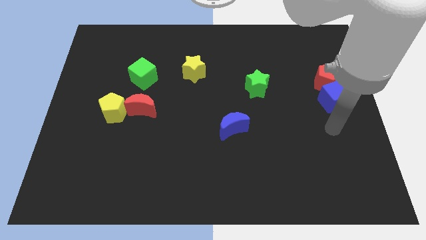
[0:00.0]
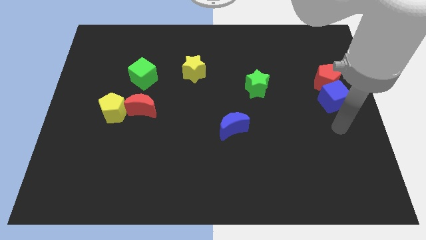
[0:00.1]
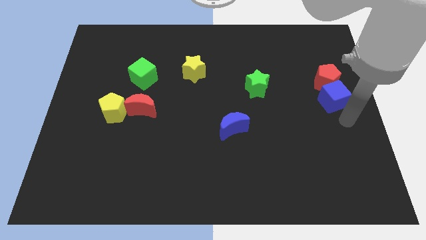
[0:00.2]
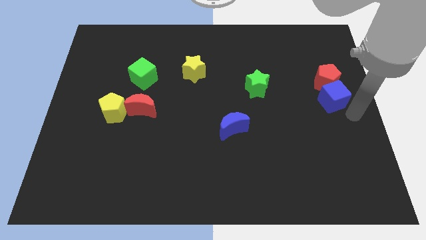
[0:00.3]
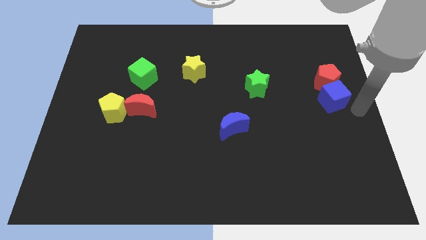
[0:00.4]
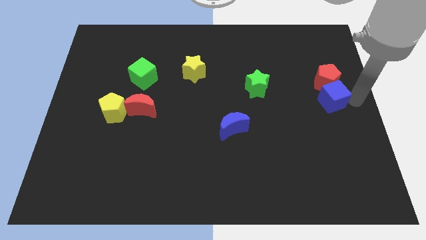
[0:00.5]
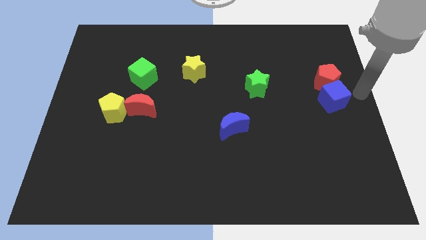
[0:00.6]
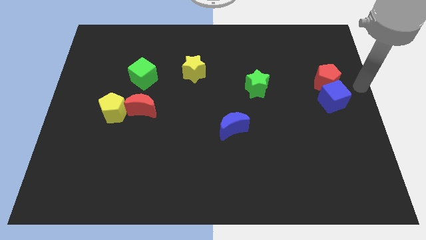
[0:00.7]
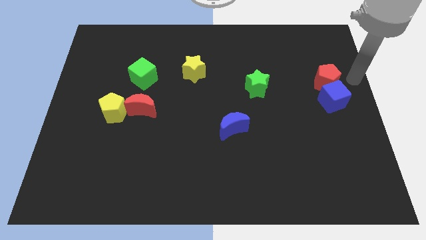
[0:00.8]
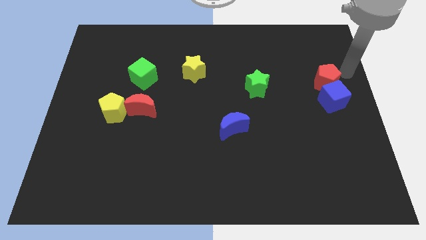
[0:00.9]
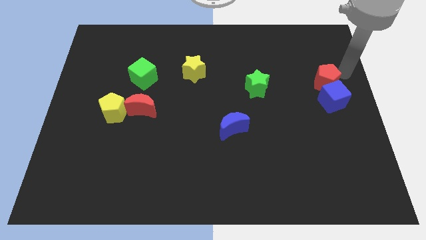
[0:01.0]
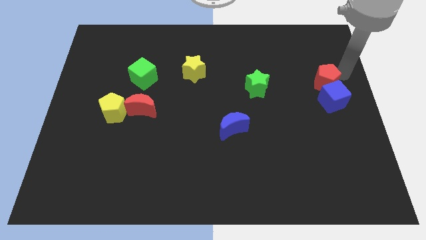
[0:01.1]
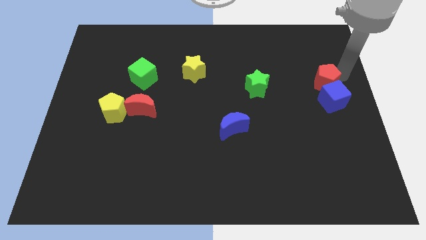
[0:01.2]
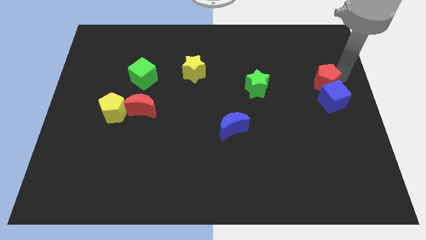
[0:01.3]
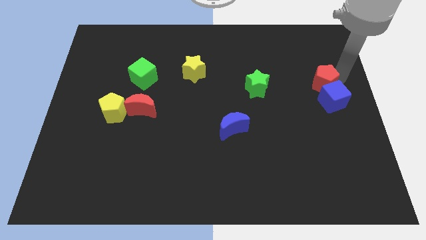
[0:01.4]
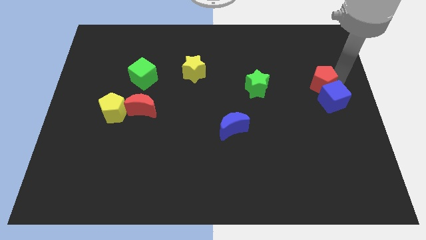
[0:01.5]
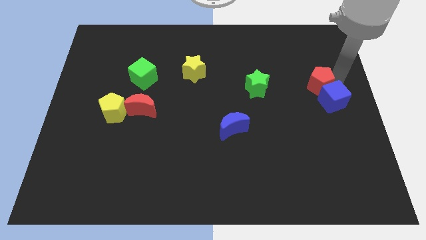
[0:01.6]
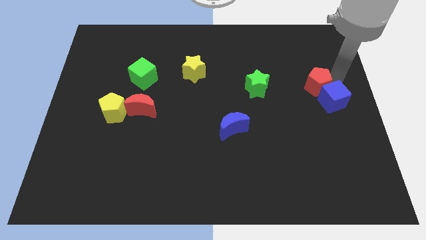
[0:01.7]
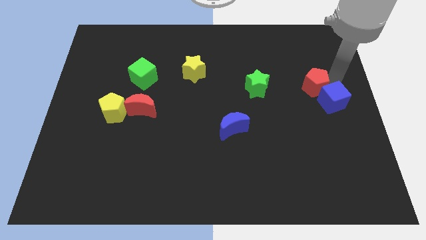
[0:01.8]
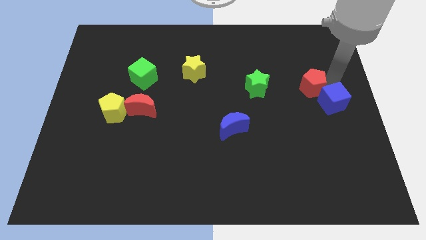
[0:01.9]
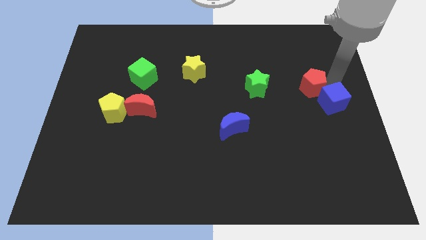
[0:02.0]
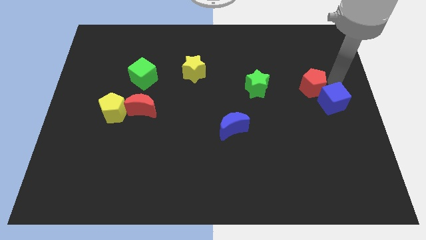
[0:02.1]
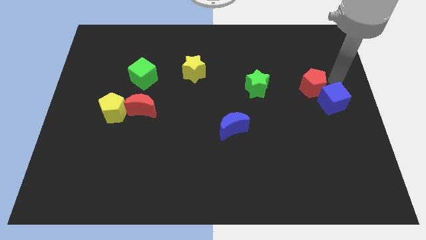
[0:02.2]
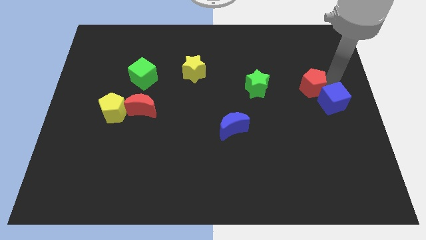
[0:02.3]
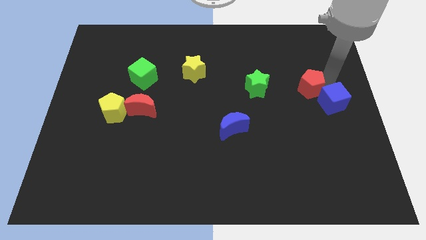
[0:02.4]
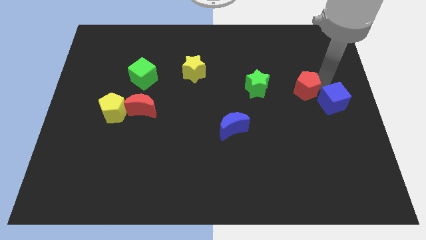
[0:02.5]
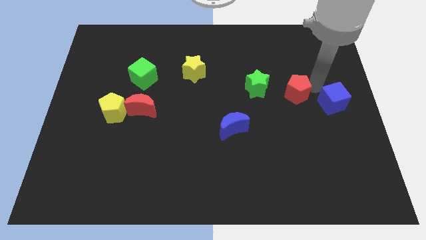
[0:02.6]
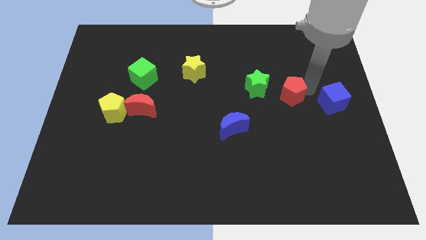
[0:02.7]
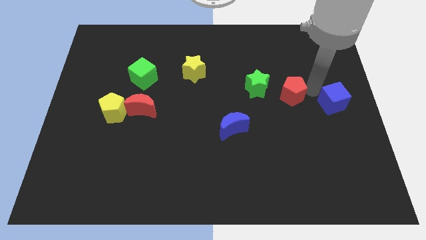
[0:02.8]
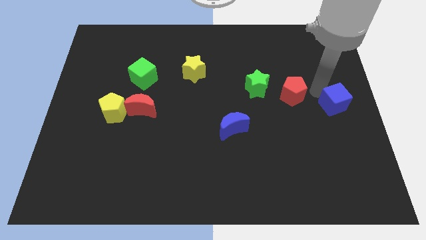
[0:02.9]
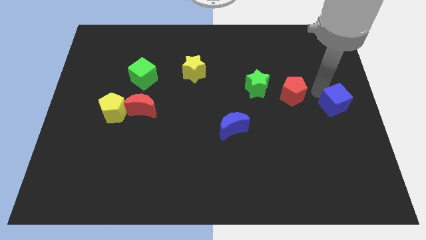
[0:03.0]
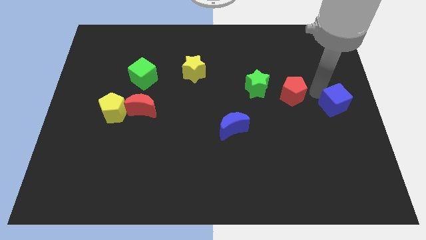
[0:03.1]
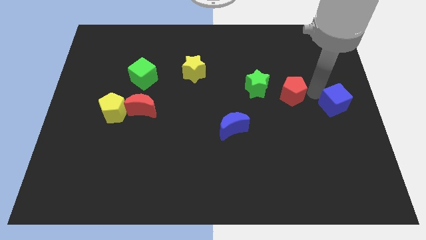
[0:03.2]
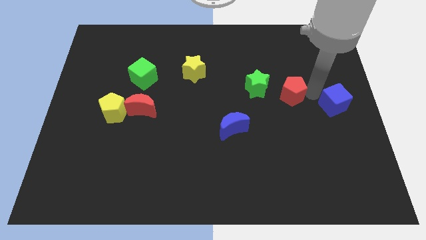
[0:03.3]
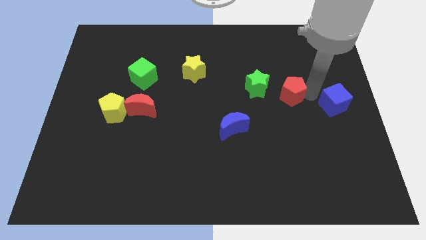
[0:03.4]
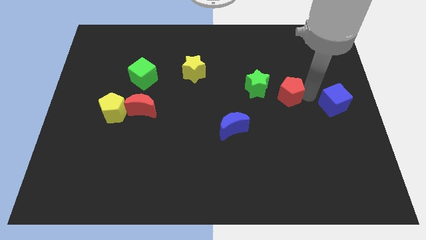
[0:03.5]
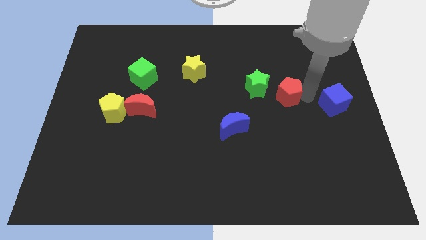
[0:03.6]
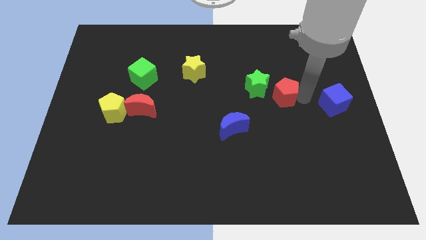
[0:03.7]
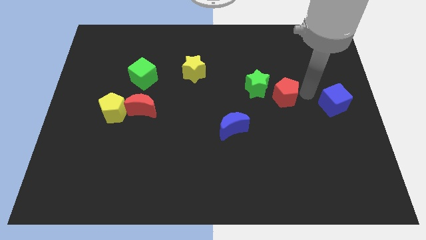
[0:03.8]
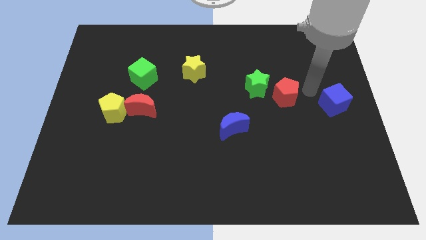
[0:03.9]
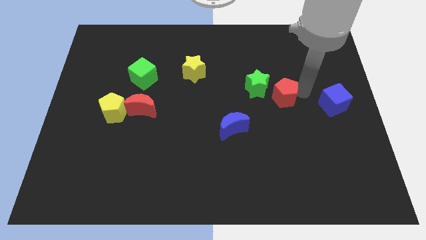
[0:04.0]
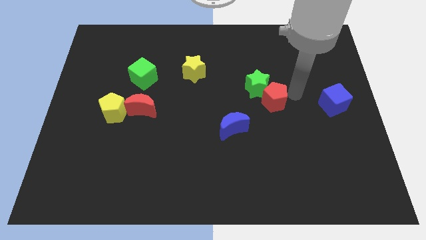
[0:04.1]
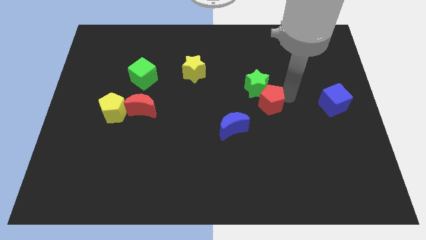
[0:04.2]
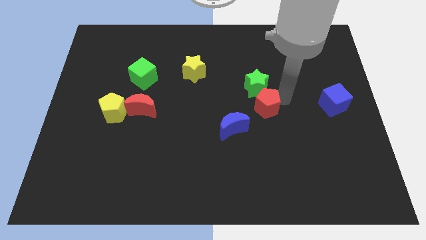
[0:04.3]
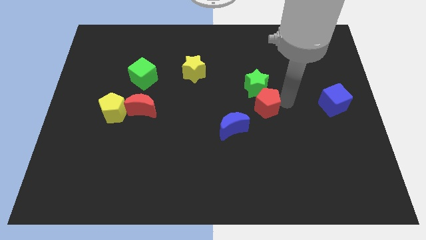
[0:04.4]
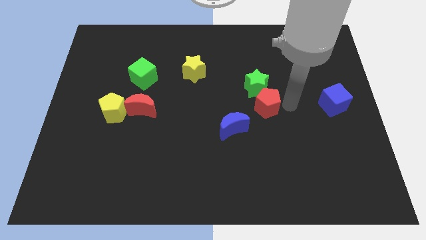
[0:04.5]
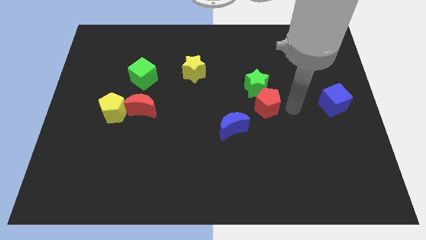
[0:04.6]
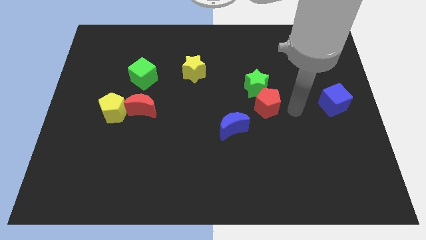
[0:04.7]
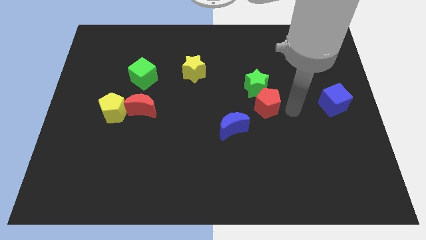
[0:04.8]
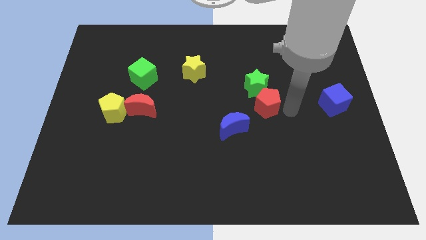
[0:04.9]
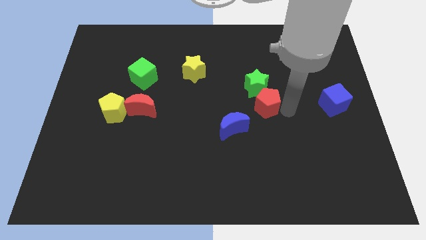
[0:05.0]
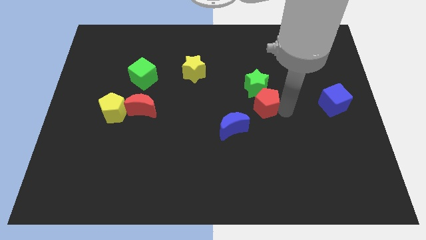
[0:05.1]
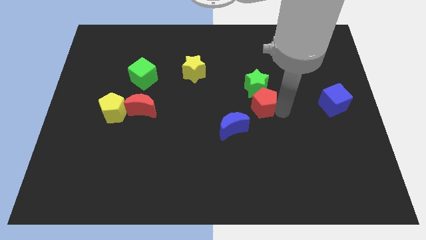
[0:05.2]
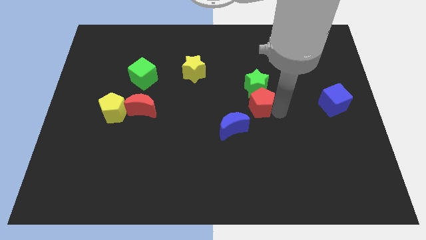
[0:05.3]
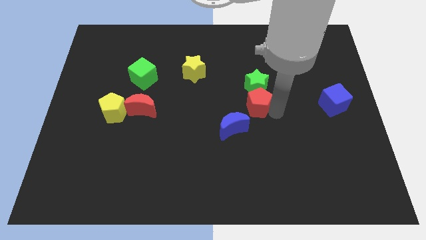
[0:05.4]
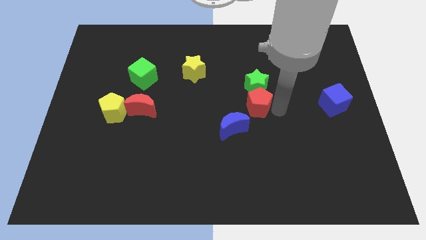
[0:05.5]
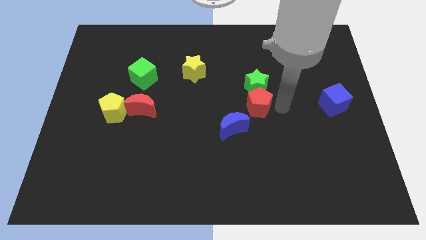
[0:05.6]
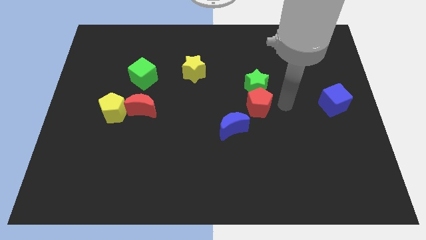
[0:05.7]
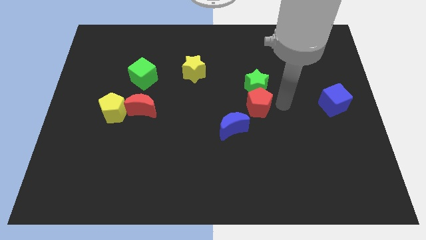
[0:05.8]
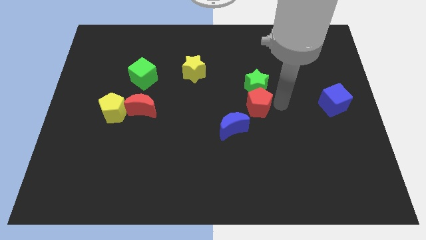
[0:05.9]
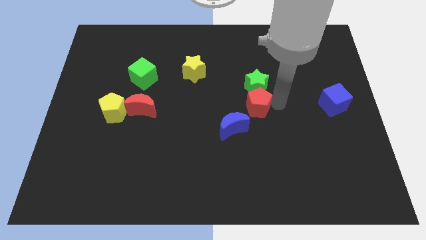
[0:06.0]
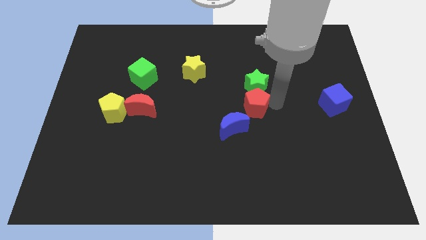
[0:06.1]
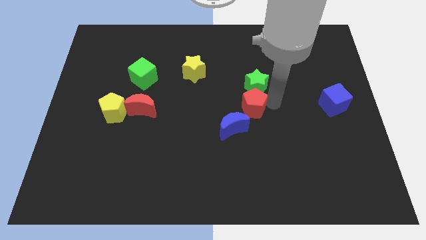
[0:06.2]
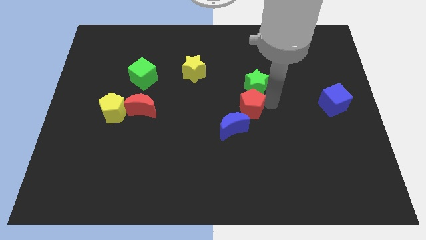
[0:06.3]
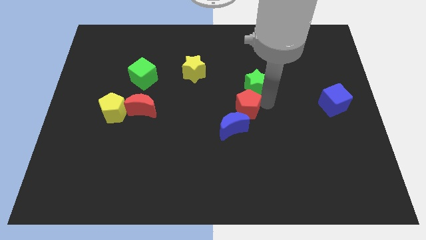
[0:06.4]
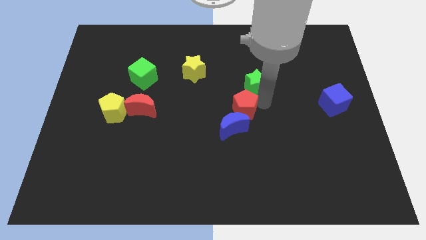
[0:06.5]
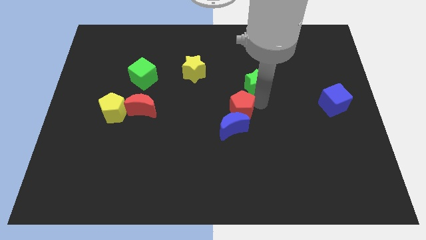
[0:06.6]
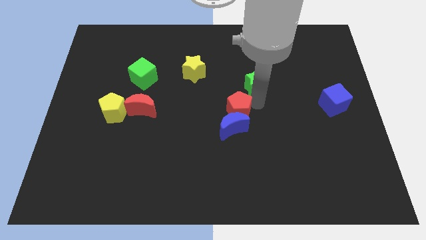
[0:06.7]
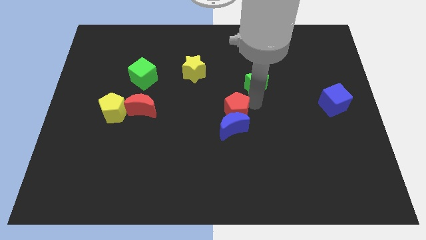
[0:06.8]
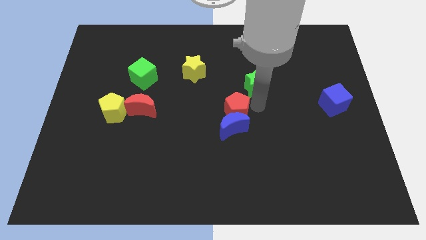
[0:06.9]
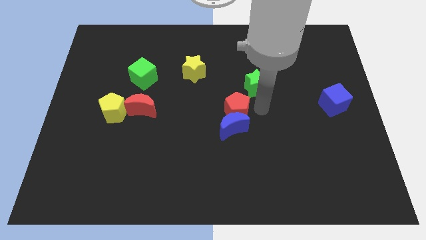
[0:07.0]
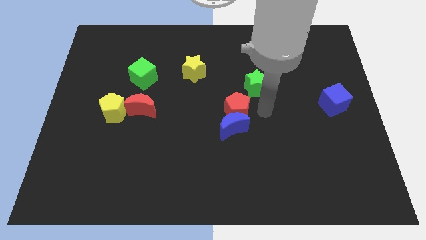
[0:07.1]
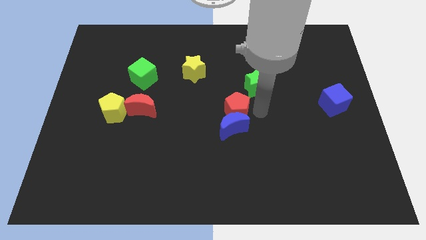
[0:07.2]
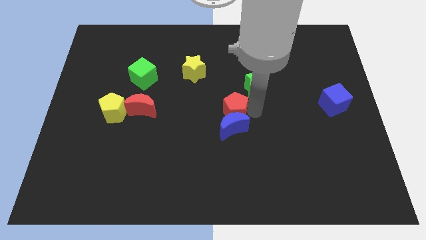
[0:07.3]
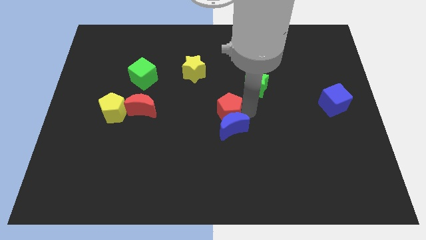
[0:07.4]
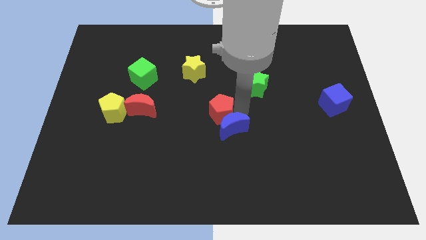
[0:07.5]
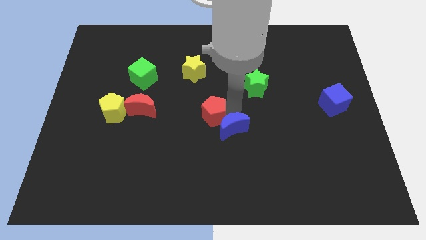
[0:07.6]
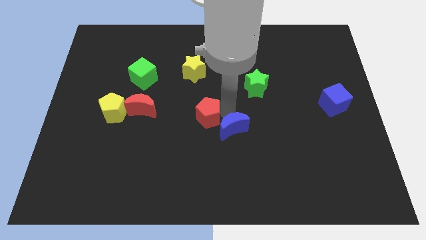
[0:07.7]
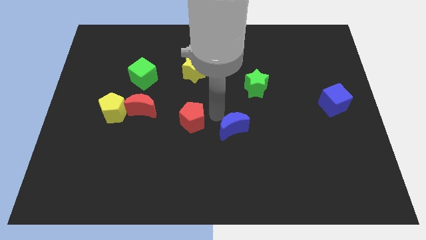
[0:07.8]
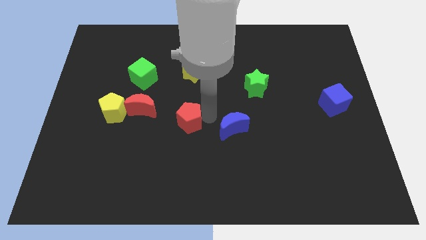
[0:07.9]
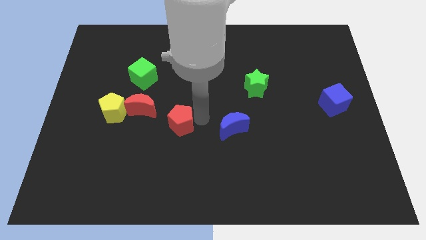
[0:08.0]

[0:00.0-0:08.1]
put the red pentagon diagonally down and to the right of the red moon
